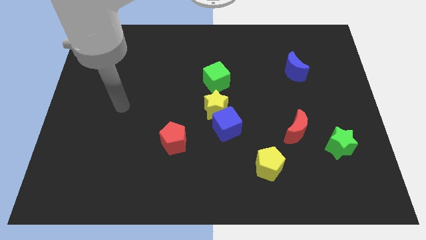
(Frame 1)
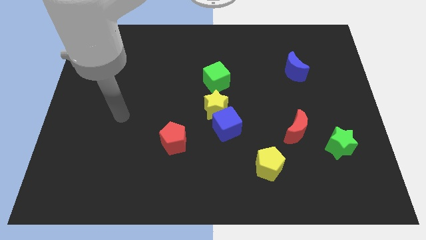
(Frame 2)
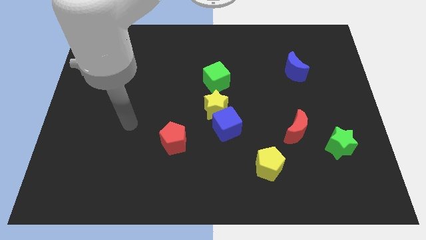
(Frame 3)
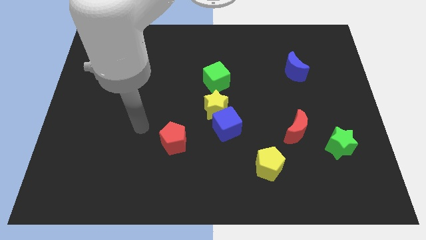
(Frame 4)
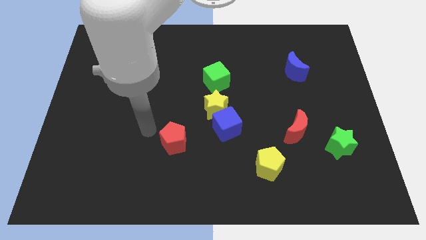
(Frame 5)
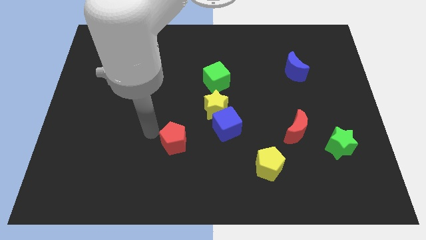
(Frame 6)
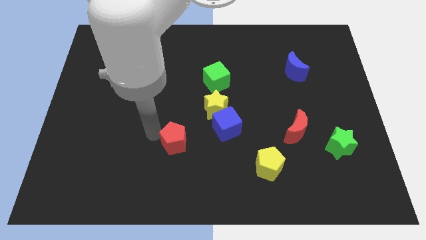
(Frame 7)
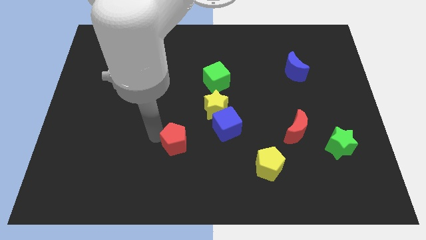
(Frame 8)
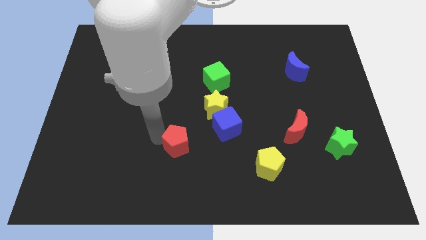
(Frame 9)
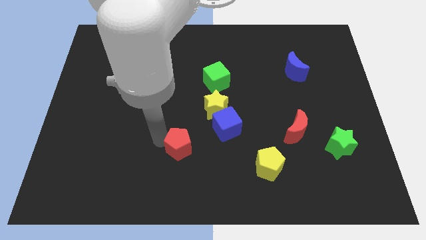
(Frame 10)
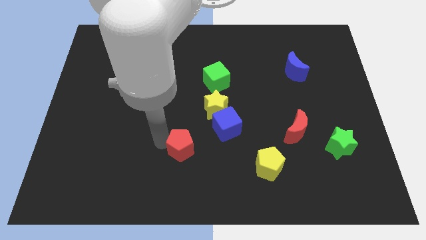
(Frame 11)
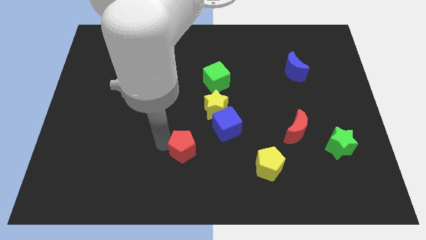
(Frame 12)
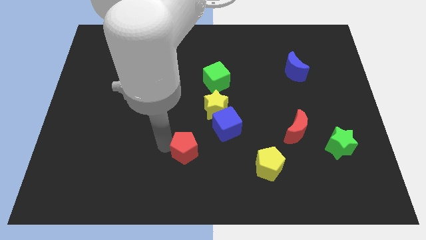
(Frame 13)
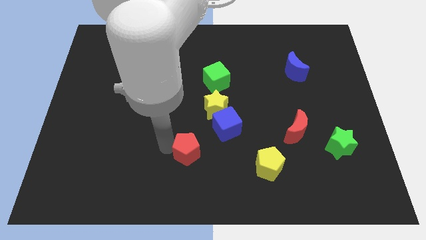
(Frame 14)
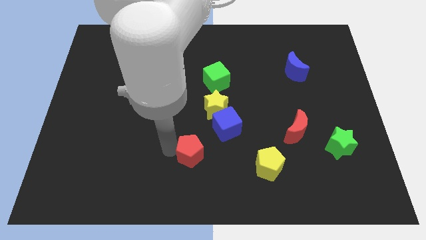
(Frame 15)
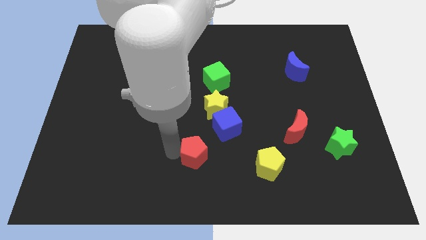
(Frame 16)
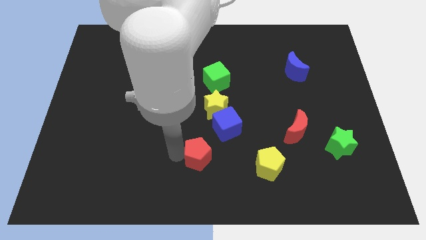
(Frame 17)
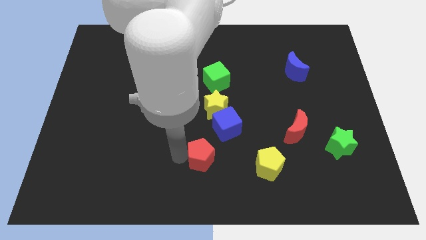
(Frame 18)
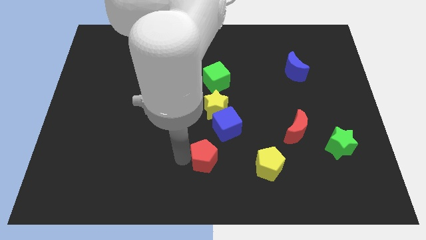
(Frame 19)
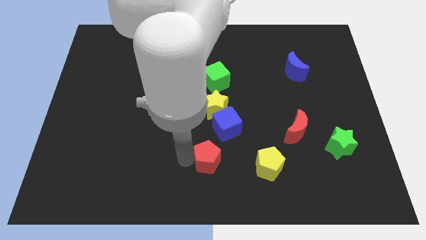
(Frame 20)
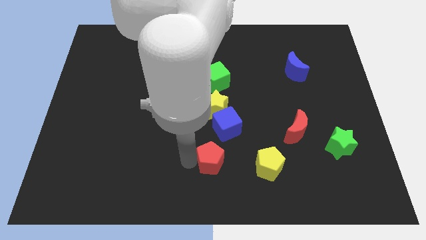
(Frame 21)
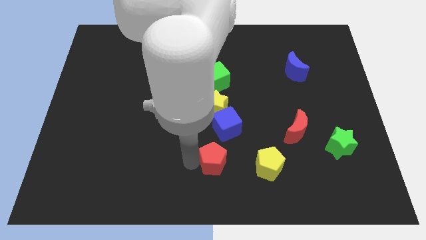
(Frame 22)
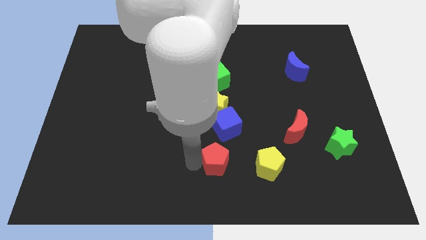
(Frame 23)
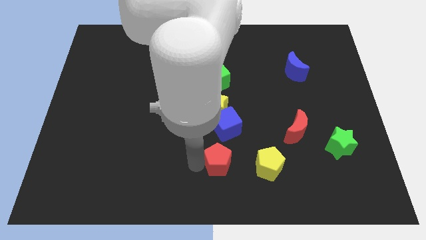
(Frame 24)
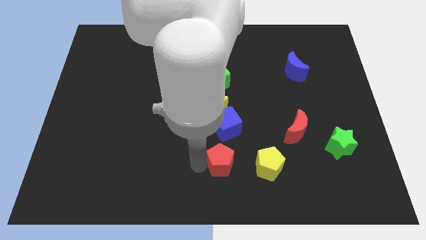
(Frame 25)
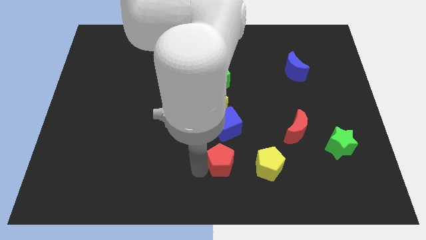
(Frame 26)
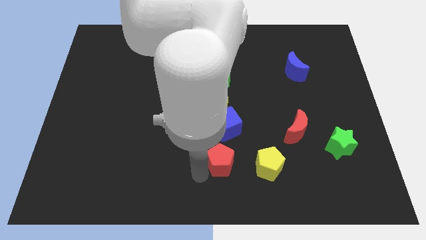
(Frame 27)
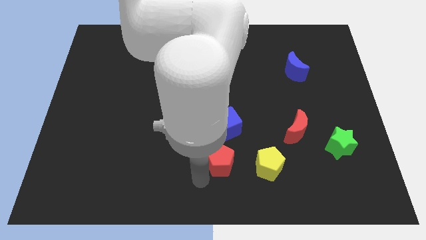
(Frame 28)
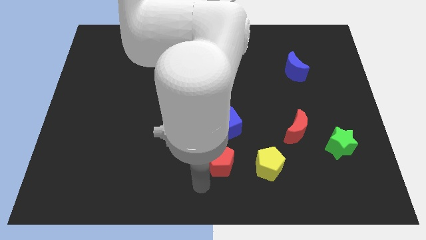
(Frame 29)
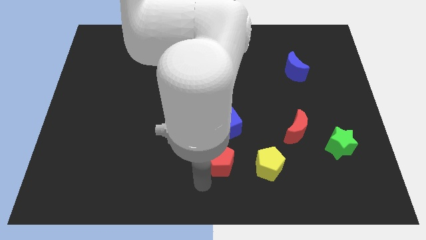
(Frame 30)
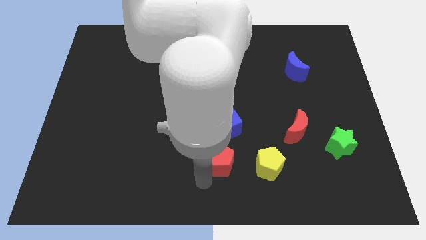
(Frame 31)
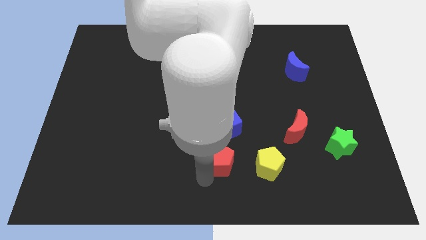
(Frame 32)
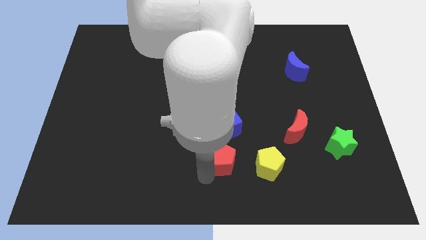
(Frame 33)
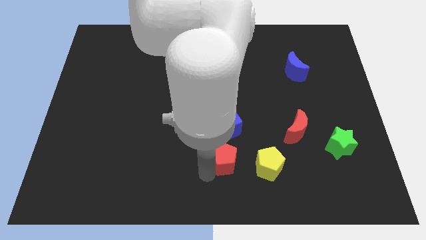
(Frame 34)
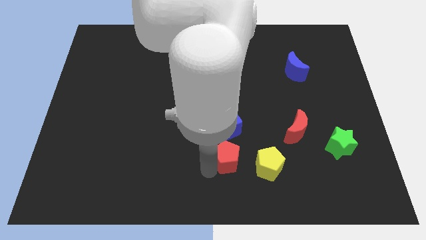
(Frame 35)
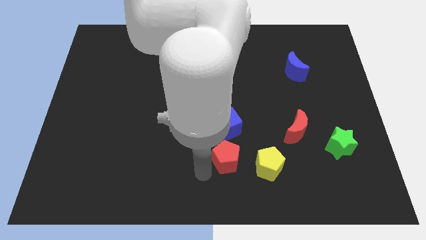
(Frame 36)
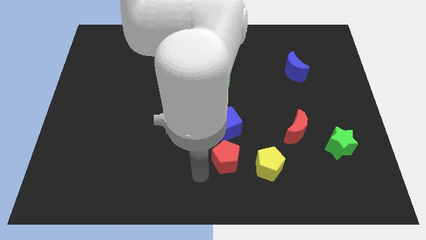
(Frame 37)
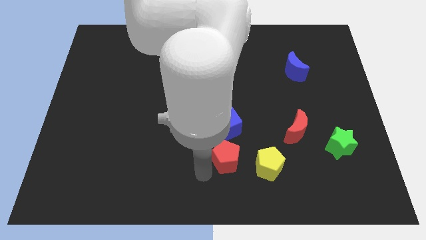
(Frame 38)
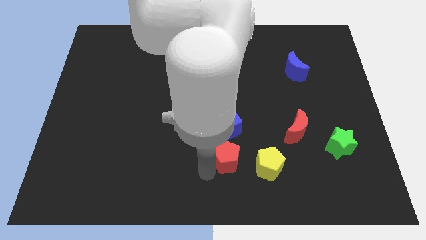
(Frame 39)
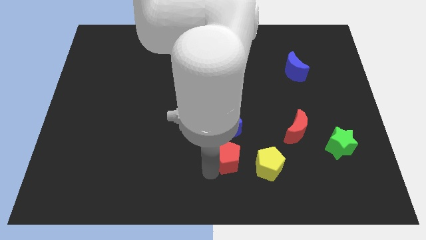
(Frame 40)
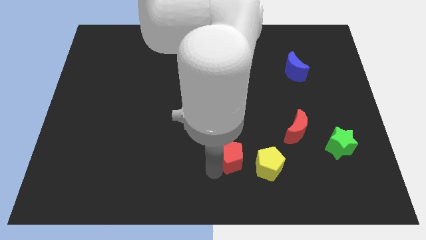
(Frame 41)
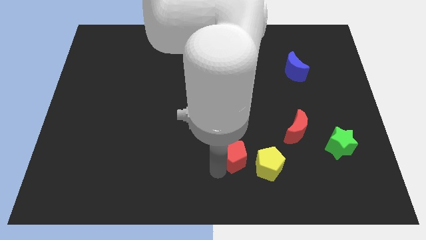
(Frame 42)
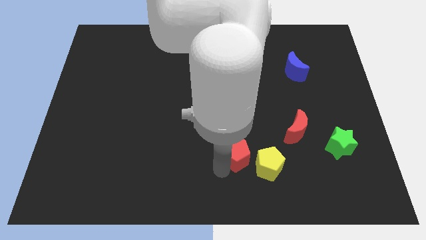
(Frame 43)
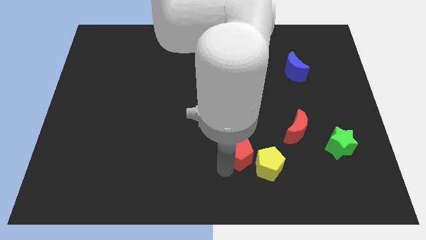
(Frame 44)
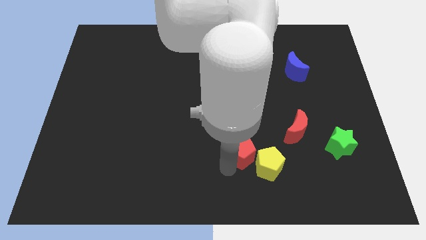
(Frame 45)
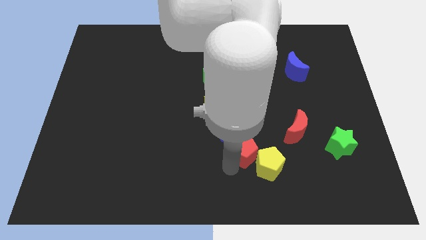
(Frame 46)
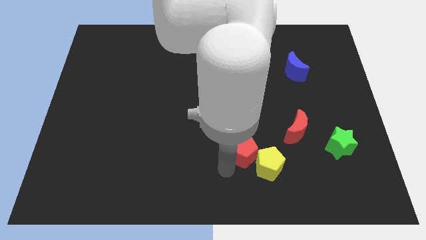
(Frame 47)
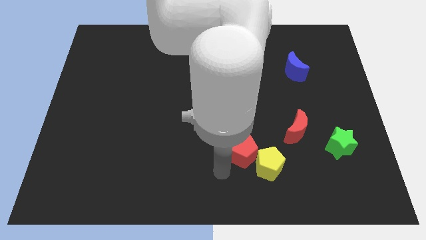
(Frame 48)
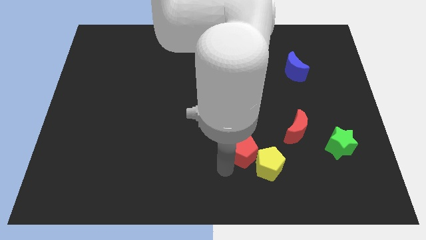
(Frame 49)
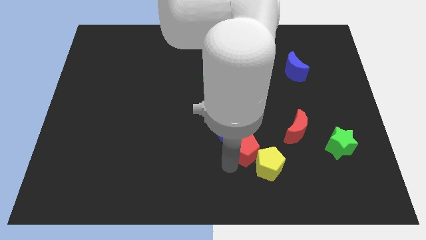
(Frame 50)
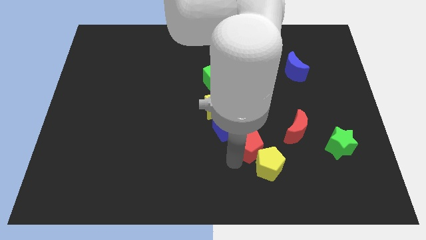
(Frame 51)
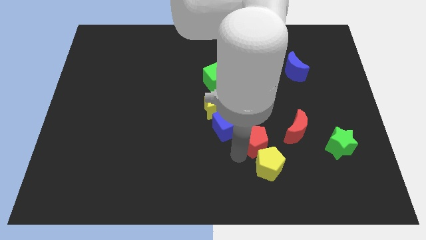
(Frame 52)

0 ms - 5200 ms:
push the red pentagon to the bottom left of the red moon
